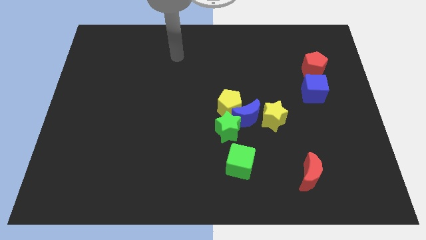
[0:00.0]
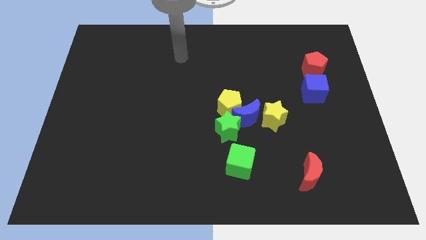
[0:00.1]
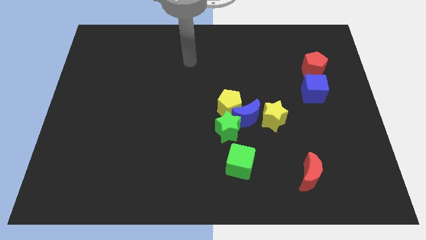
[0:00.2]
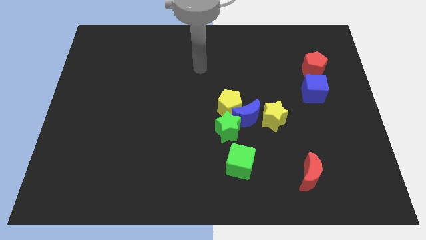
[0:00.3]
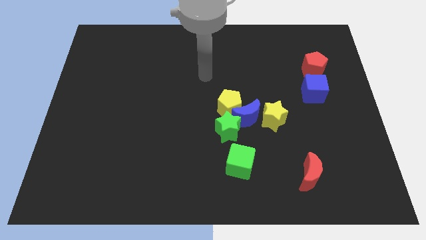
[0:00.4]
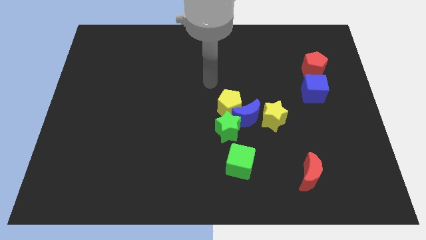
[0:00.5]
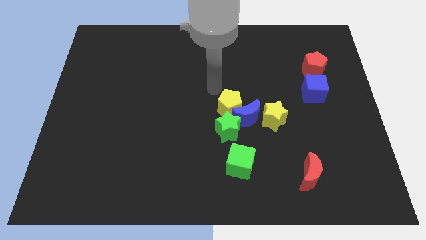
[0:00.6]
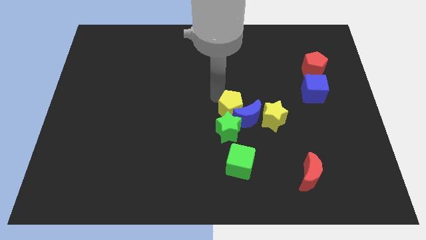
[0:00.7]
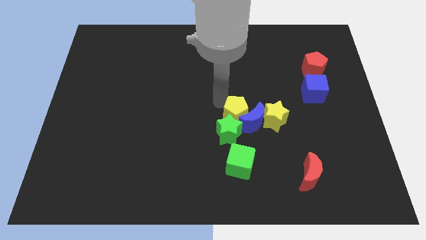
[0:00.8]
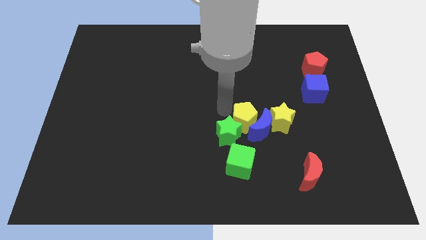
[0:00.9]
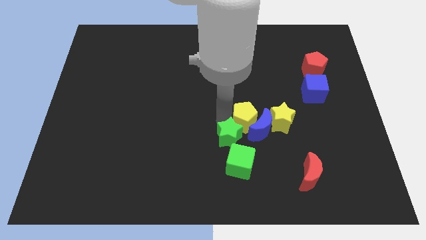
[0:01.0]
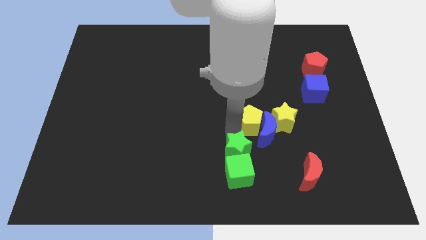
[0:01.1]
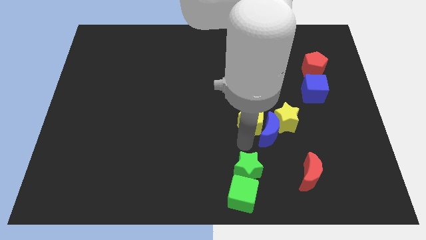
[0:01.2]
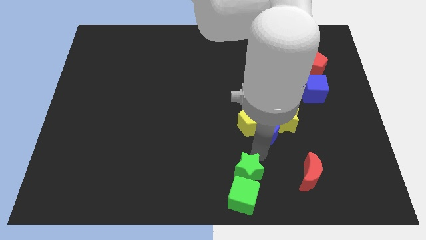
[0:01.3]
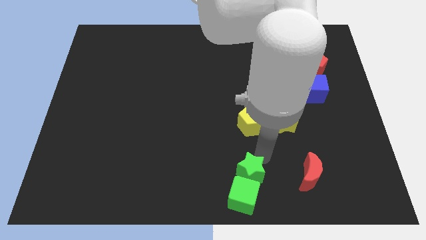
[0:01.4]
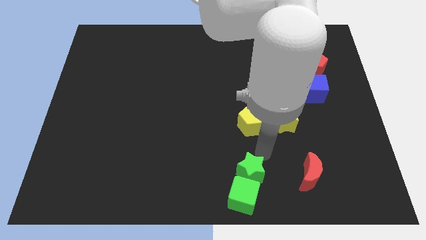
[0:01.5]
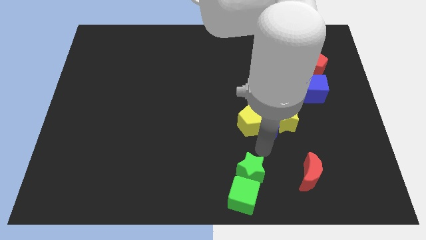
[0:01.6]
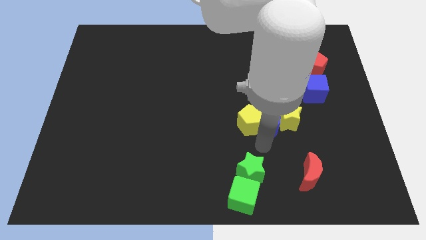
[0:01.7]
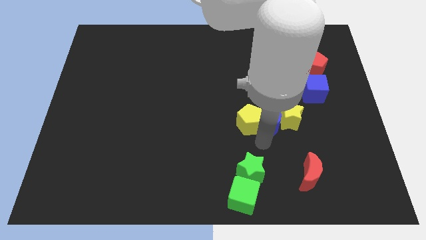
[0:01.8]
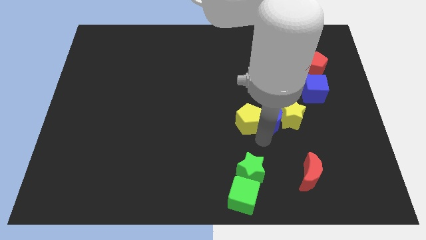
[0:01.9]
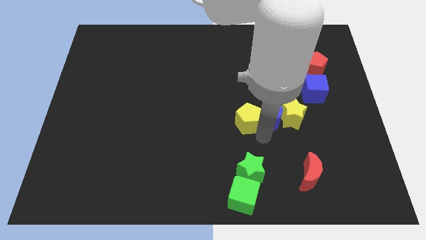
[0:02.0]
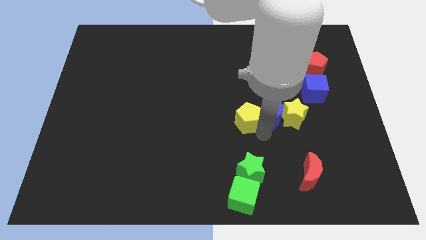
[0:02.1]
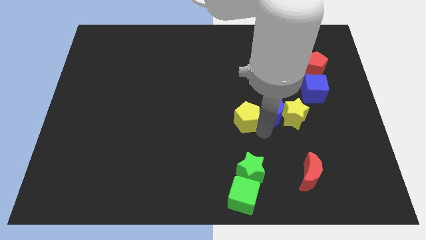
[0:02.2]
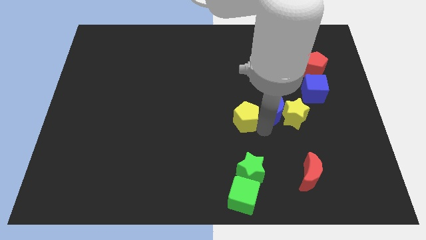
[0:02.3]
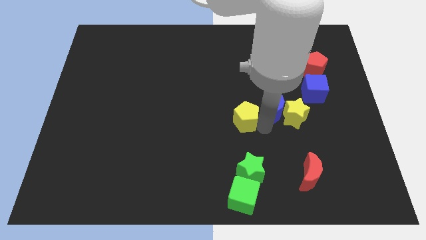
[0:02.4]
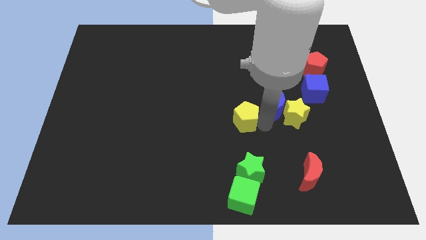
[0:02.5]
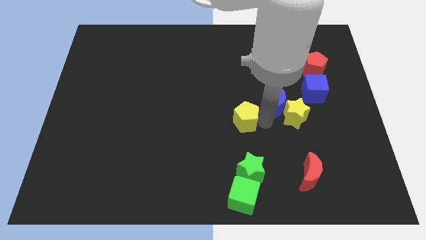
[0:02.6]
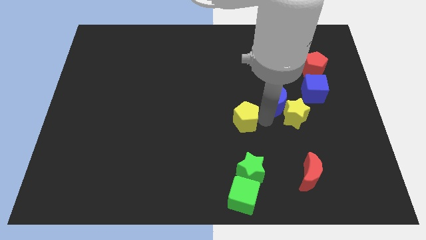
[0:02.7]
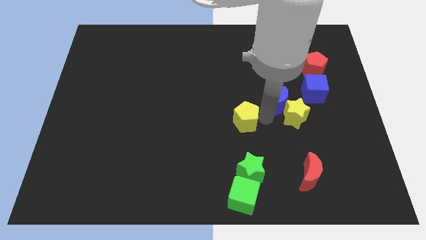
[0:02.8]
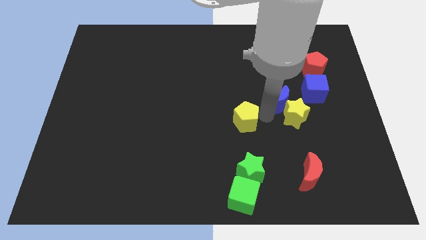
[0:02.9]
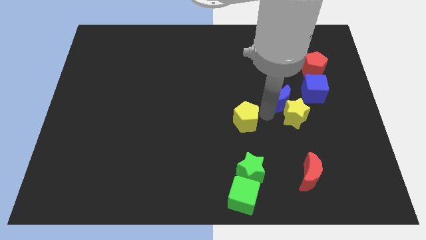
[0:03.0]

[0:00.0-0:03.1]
pull the blue moon apart from the yellow pentagon, green star, and yellow star

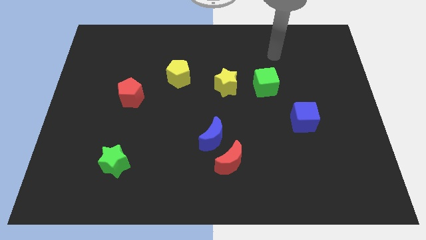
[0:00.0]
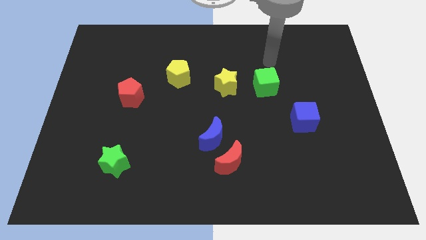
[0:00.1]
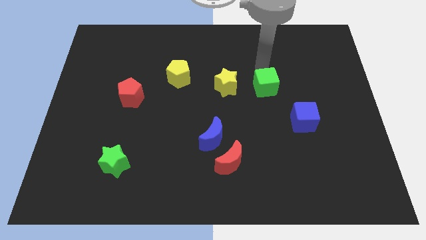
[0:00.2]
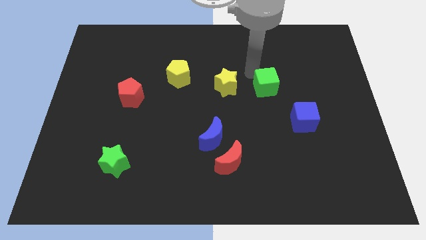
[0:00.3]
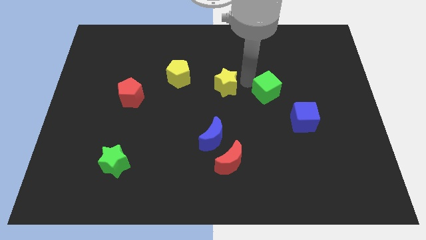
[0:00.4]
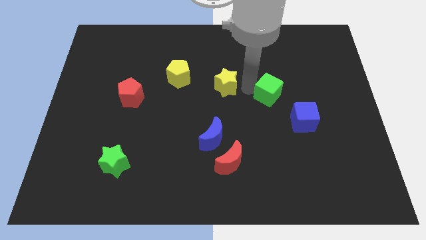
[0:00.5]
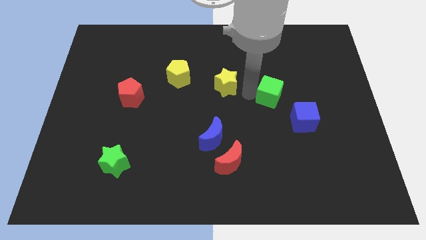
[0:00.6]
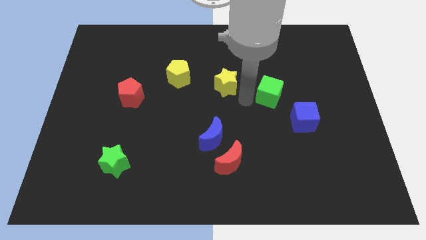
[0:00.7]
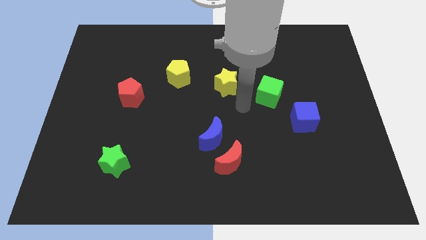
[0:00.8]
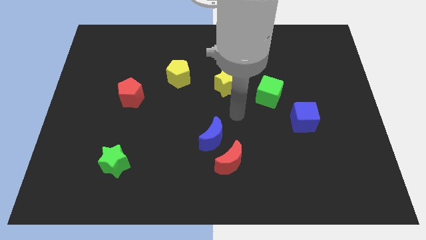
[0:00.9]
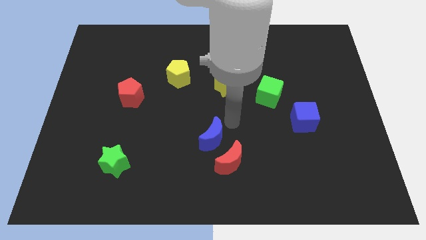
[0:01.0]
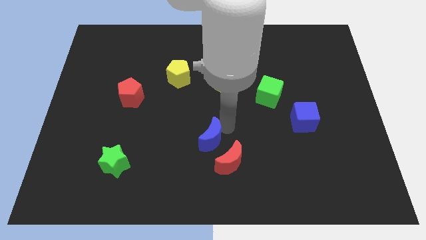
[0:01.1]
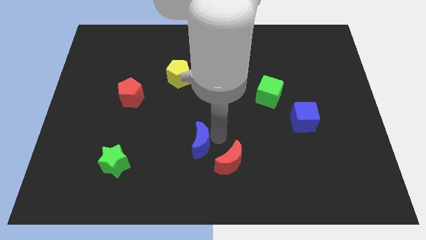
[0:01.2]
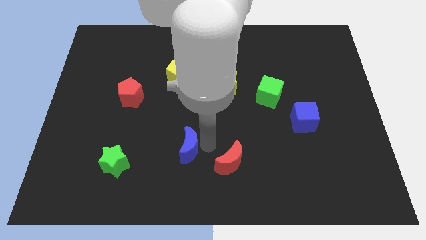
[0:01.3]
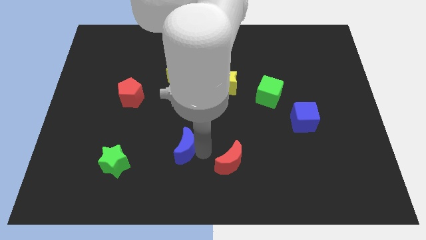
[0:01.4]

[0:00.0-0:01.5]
move the red moon away from the blue moon

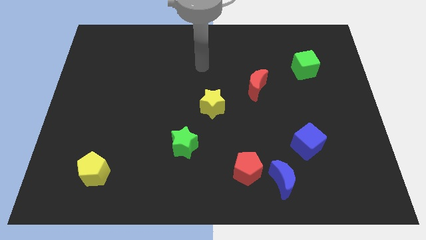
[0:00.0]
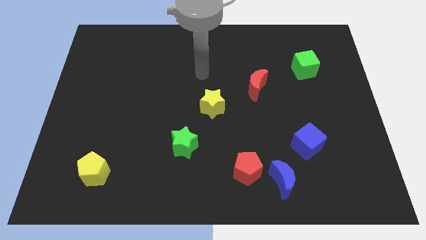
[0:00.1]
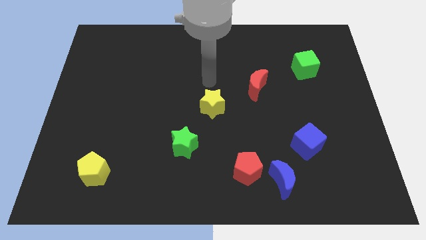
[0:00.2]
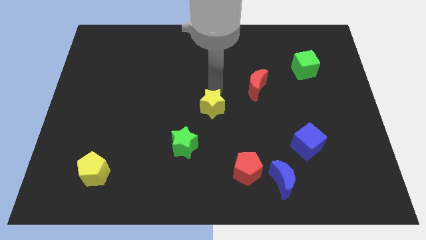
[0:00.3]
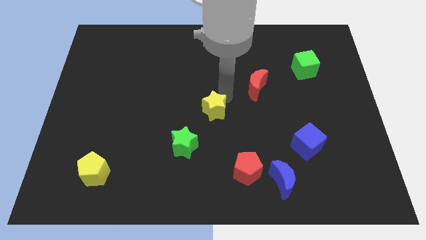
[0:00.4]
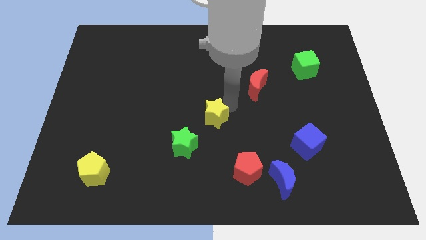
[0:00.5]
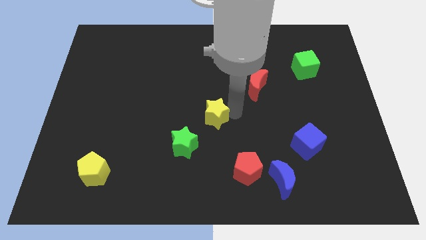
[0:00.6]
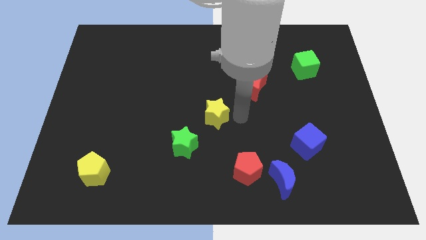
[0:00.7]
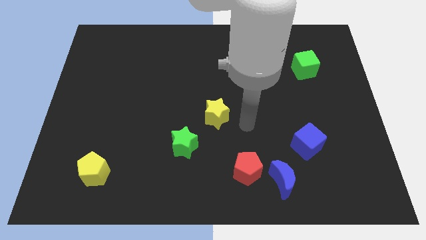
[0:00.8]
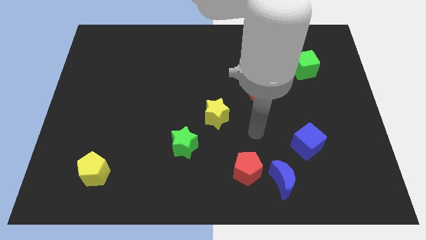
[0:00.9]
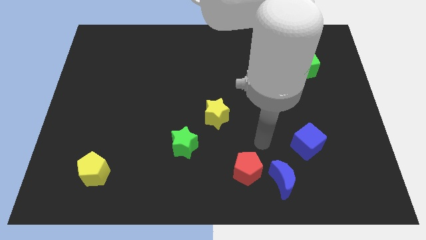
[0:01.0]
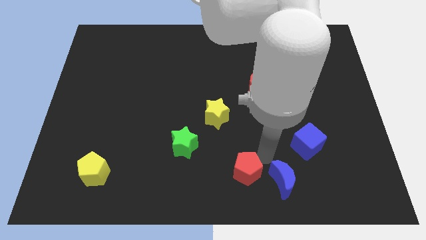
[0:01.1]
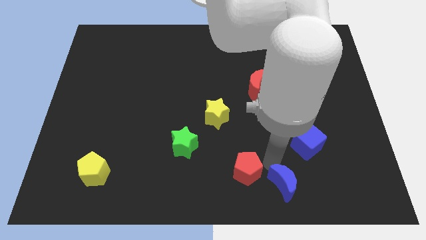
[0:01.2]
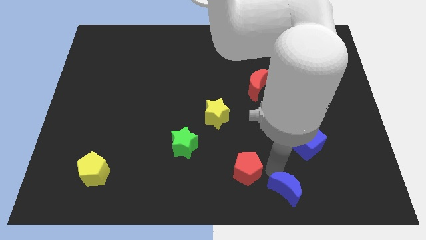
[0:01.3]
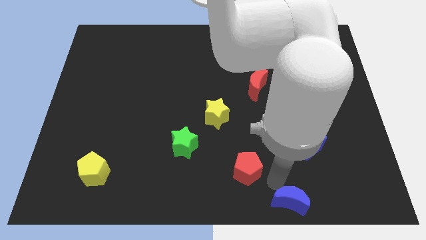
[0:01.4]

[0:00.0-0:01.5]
pull the red pentagon apart from the blue moon

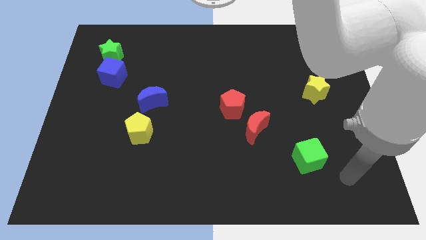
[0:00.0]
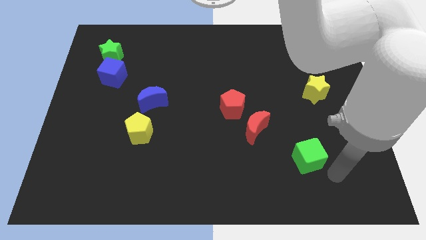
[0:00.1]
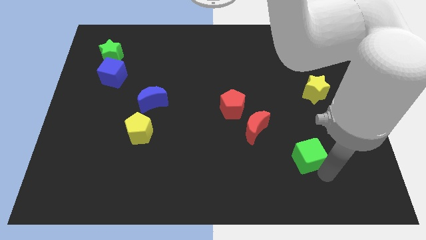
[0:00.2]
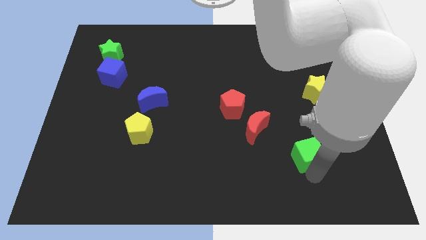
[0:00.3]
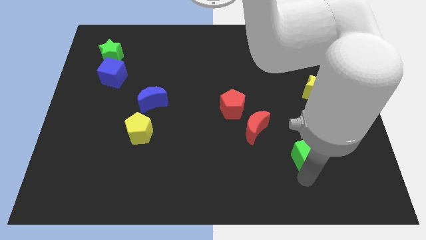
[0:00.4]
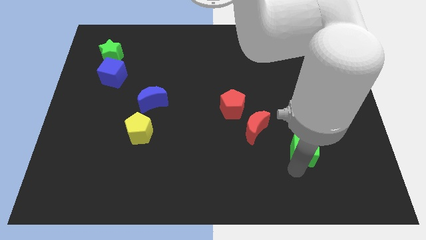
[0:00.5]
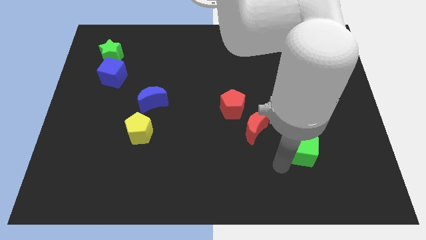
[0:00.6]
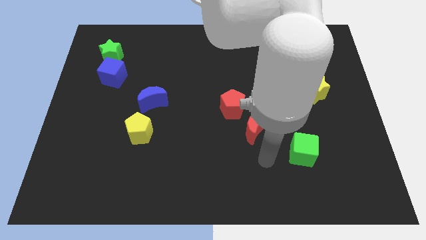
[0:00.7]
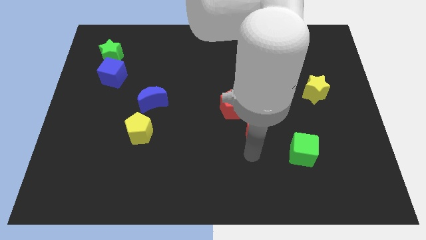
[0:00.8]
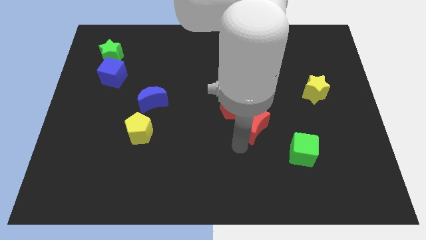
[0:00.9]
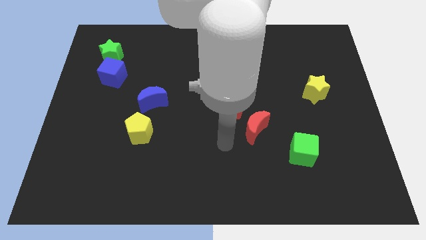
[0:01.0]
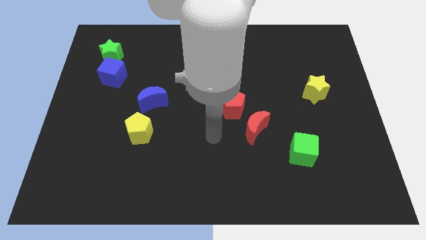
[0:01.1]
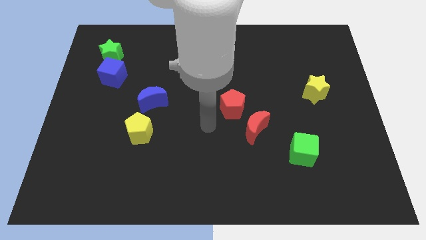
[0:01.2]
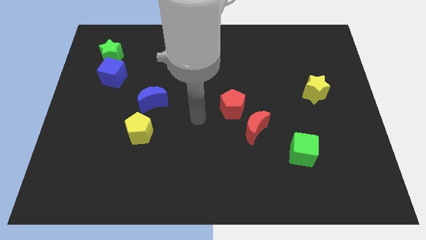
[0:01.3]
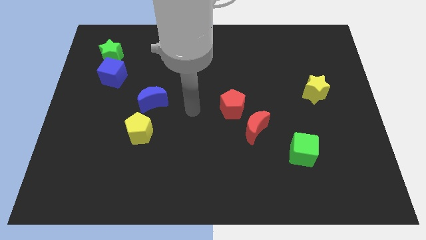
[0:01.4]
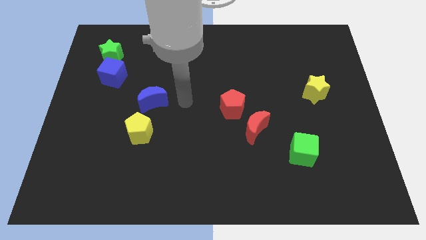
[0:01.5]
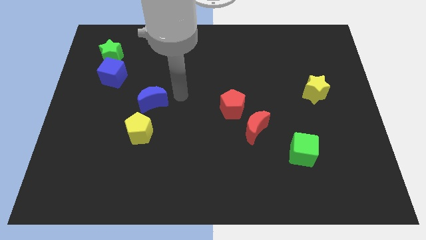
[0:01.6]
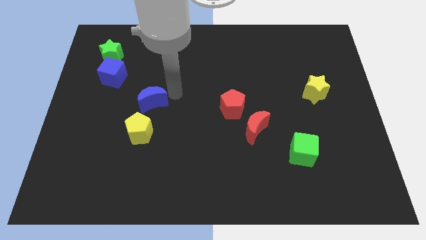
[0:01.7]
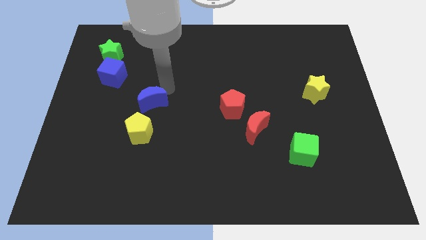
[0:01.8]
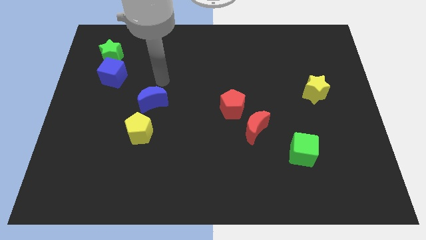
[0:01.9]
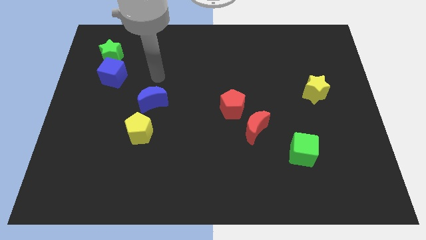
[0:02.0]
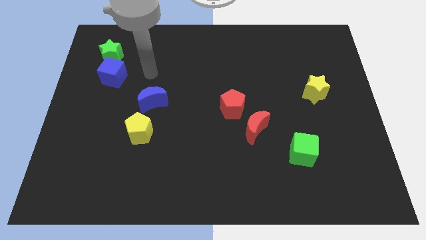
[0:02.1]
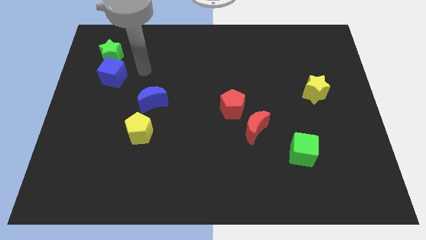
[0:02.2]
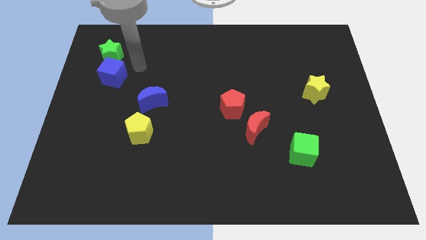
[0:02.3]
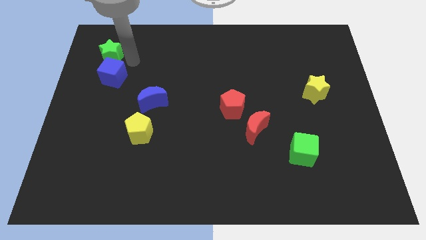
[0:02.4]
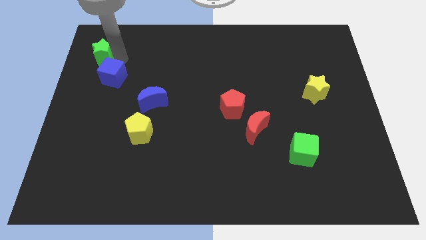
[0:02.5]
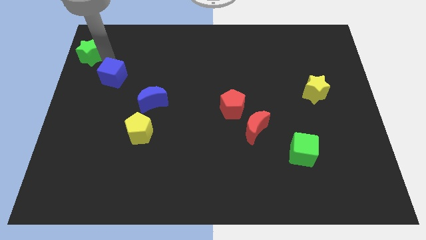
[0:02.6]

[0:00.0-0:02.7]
pull the blue cube apart from the green star

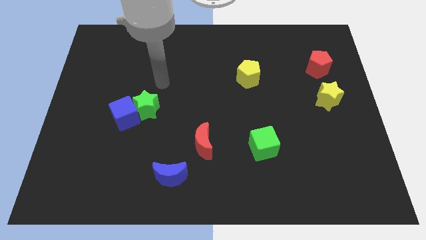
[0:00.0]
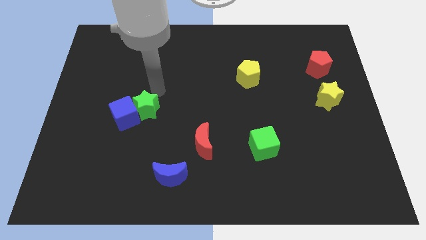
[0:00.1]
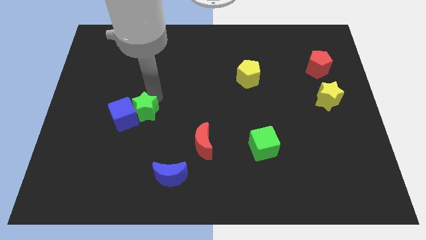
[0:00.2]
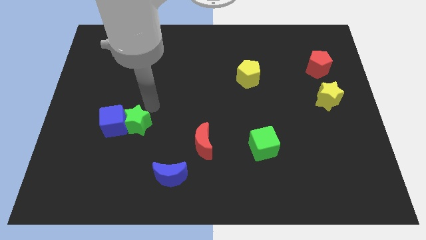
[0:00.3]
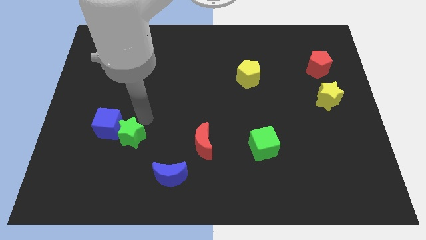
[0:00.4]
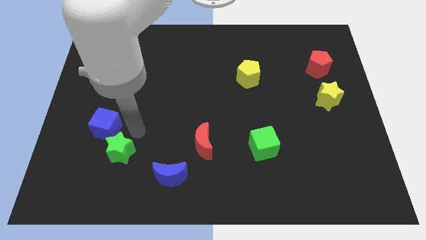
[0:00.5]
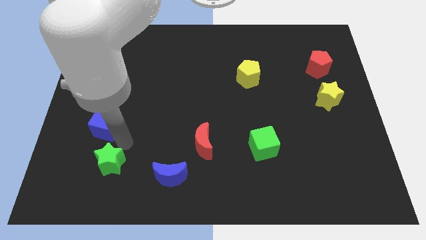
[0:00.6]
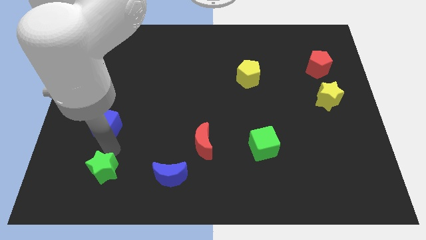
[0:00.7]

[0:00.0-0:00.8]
separate the blue cube from the green star
